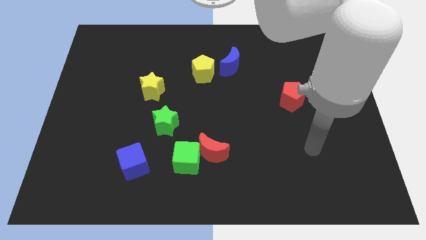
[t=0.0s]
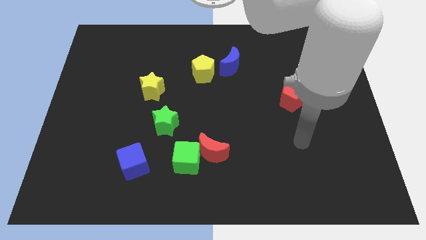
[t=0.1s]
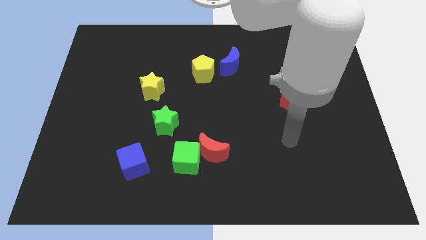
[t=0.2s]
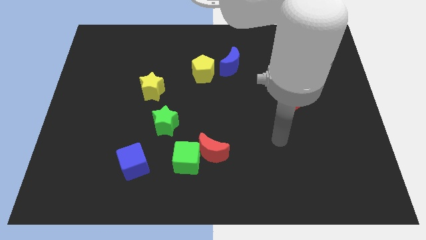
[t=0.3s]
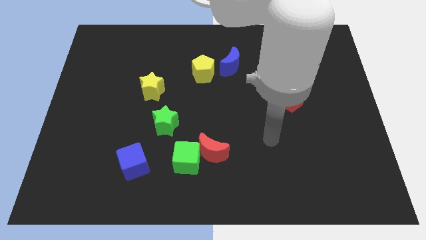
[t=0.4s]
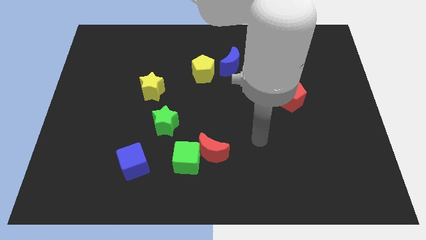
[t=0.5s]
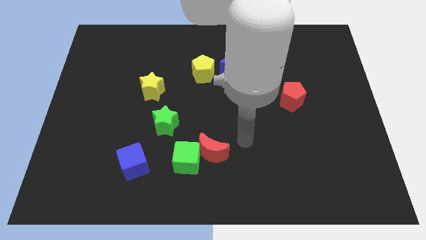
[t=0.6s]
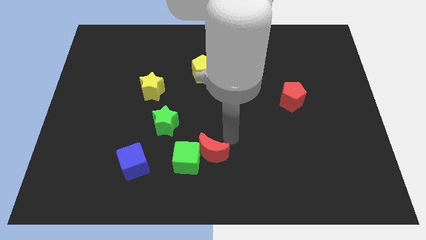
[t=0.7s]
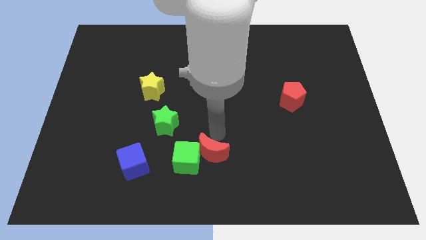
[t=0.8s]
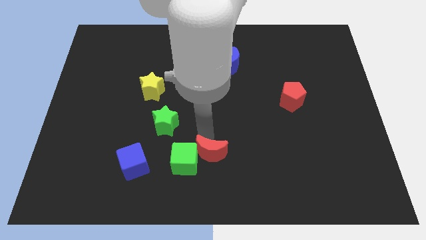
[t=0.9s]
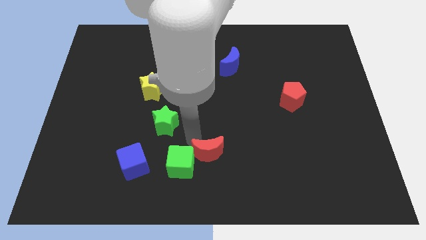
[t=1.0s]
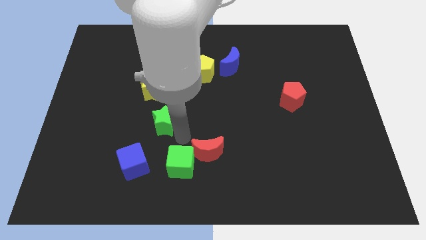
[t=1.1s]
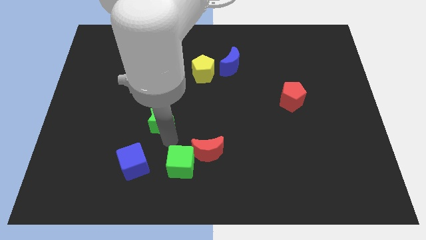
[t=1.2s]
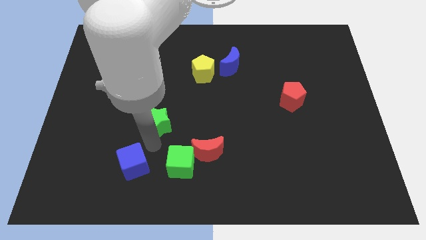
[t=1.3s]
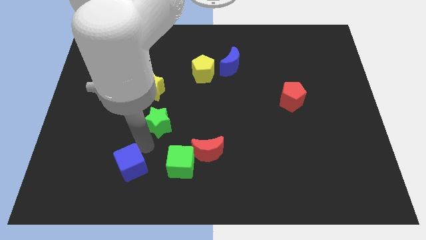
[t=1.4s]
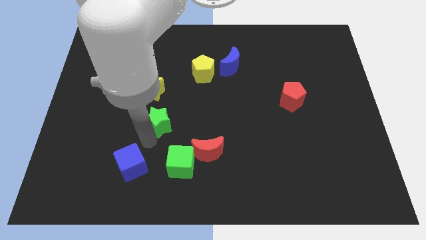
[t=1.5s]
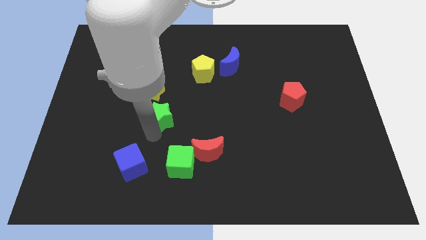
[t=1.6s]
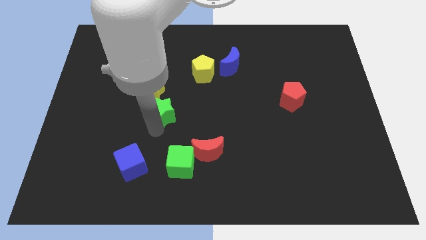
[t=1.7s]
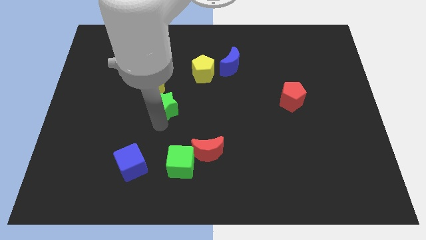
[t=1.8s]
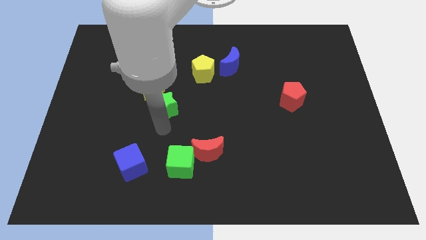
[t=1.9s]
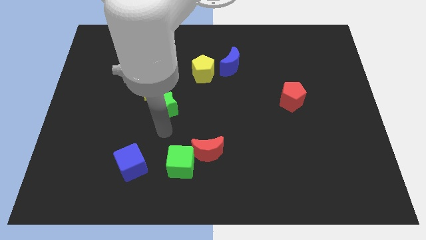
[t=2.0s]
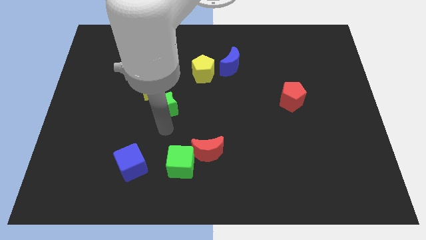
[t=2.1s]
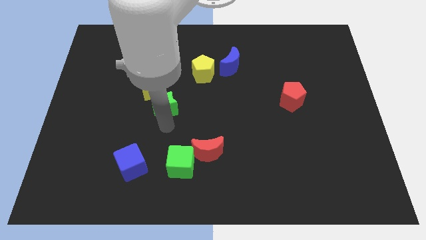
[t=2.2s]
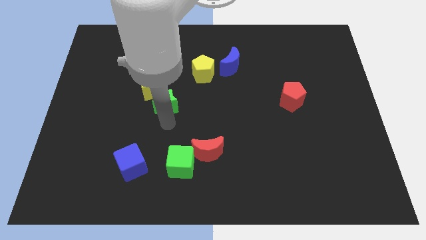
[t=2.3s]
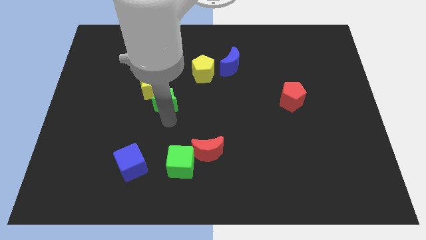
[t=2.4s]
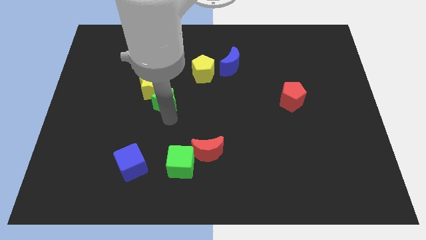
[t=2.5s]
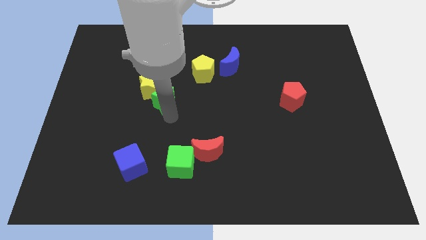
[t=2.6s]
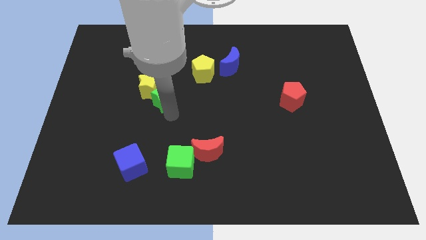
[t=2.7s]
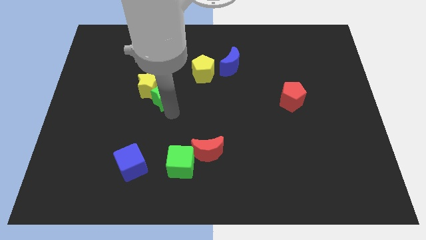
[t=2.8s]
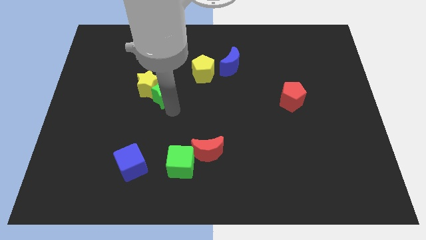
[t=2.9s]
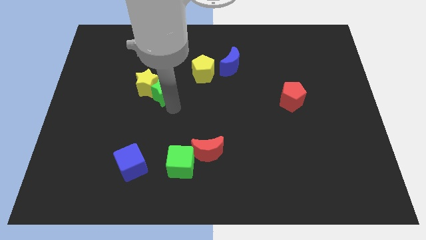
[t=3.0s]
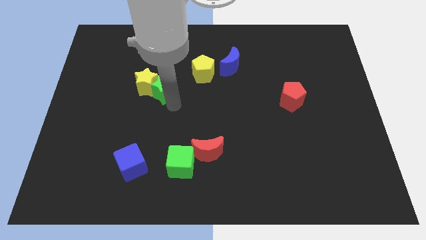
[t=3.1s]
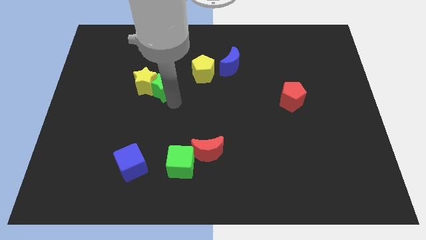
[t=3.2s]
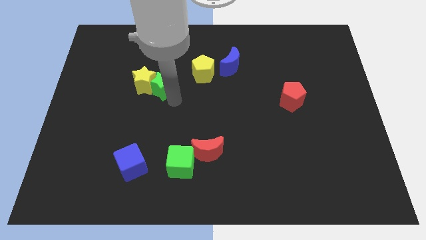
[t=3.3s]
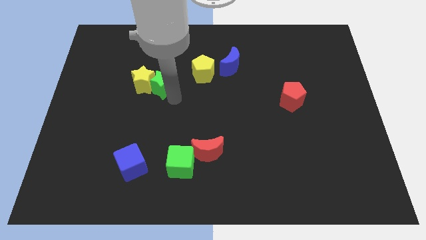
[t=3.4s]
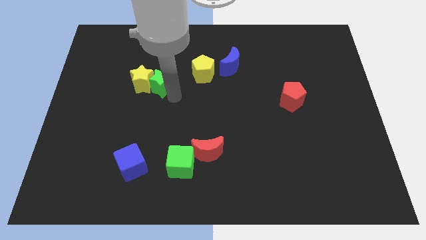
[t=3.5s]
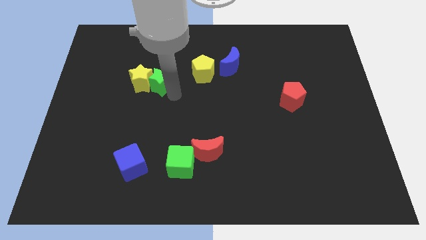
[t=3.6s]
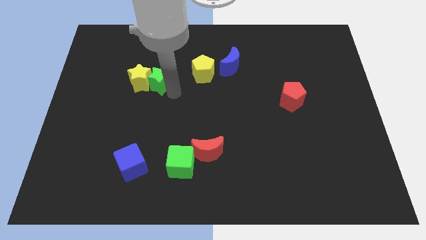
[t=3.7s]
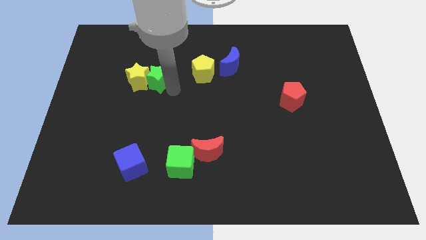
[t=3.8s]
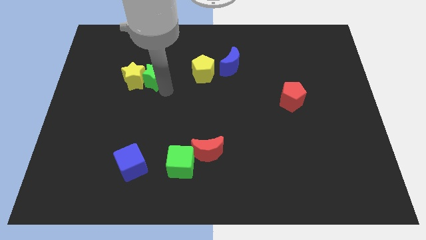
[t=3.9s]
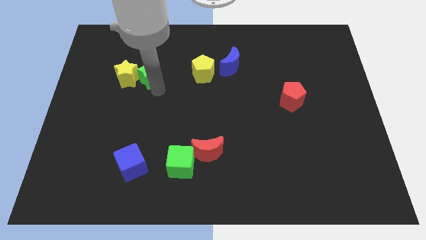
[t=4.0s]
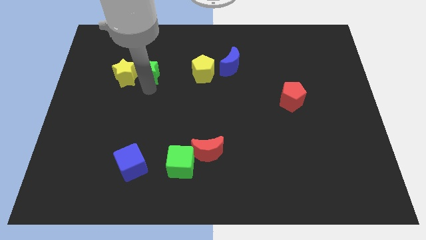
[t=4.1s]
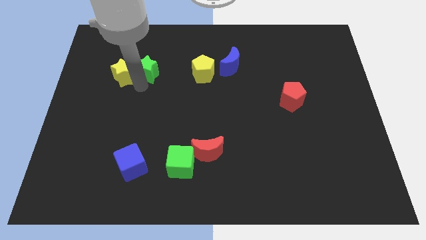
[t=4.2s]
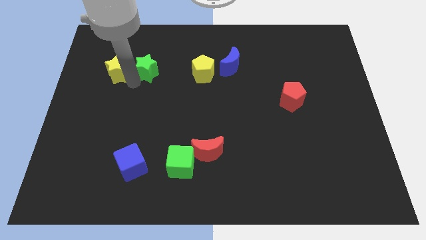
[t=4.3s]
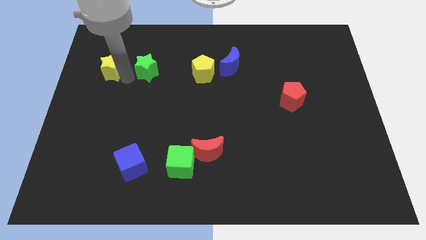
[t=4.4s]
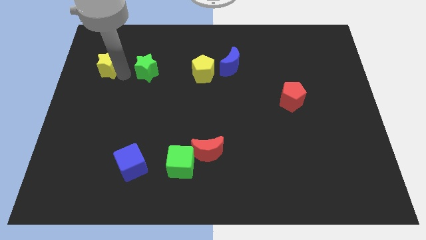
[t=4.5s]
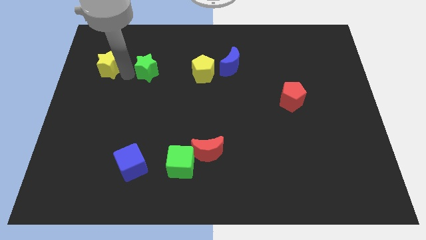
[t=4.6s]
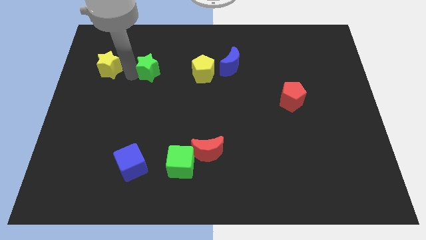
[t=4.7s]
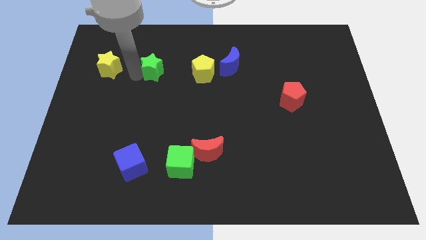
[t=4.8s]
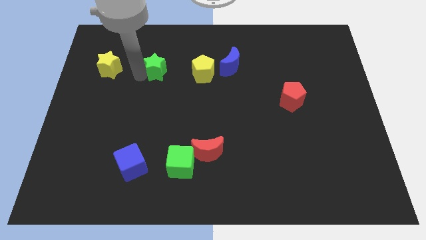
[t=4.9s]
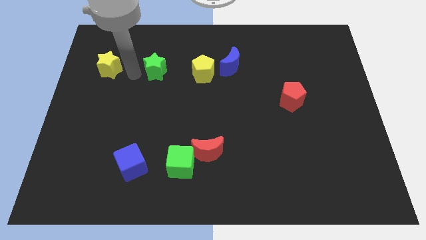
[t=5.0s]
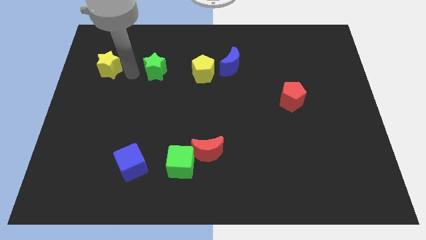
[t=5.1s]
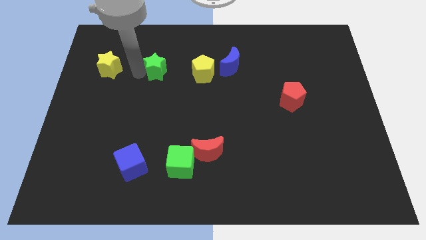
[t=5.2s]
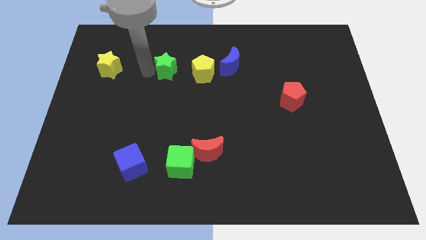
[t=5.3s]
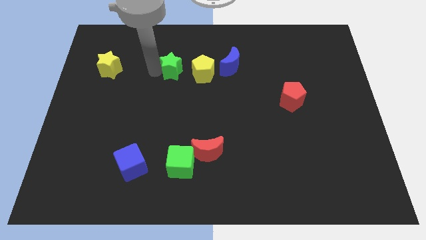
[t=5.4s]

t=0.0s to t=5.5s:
move the green star to the left side of the blue moon

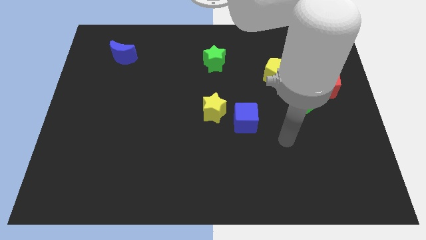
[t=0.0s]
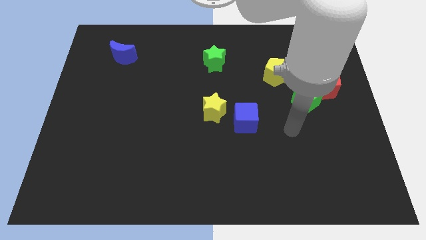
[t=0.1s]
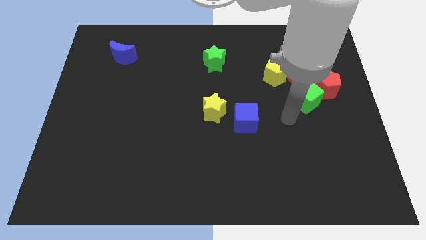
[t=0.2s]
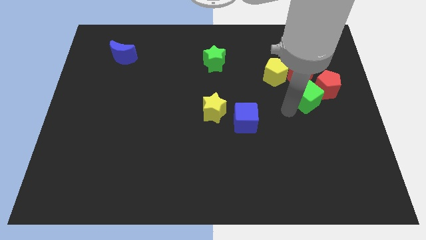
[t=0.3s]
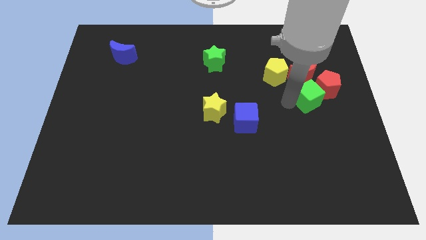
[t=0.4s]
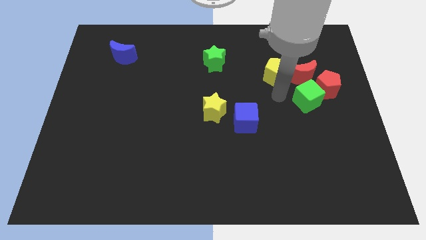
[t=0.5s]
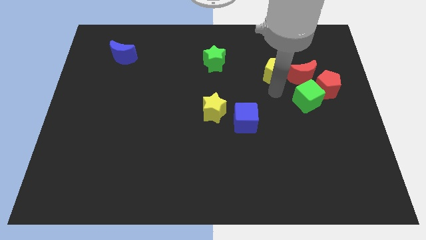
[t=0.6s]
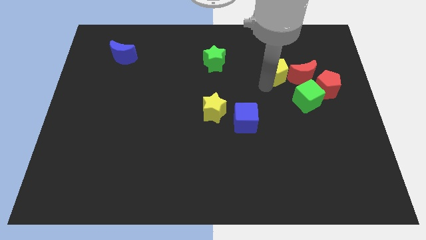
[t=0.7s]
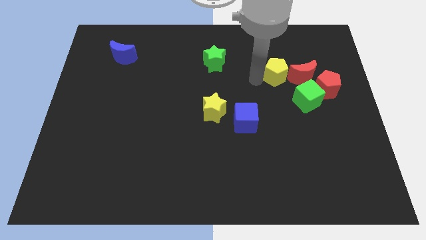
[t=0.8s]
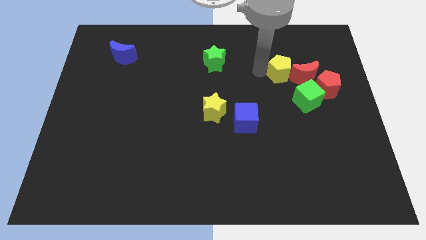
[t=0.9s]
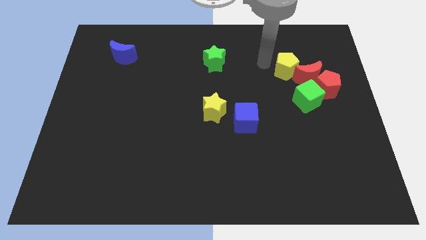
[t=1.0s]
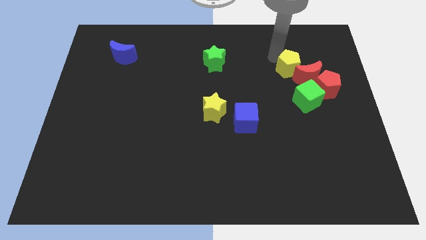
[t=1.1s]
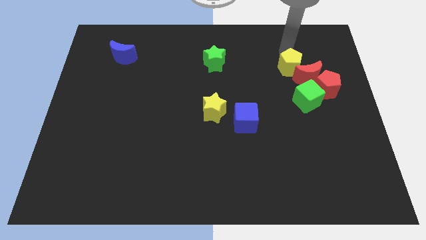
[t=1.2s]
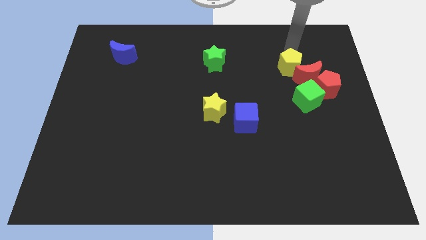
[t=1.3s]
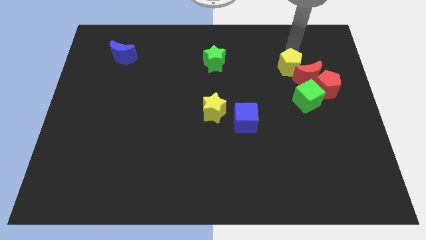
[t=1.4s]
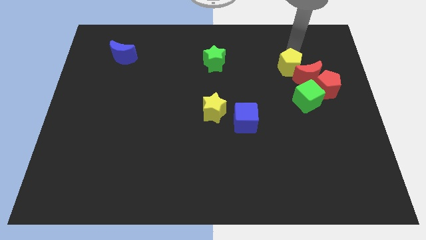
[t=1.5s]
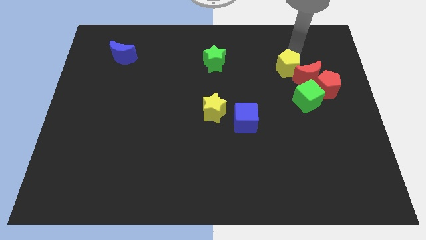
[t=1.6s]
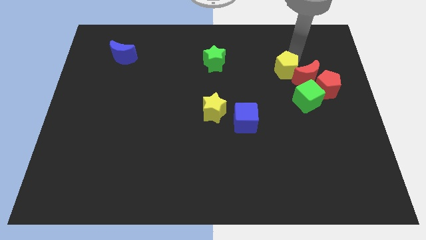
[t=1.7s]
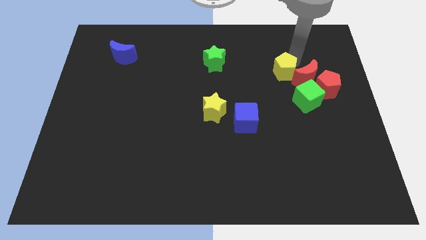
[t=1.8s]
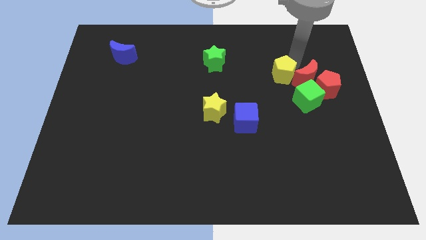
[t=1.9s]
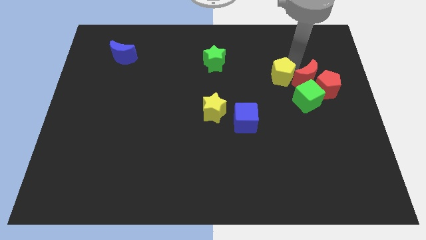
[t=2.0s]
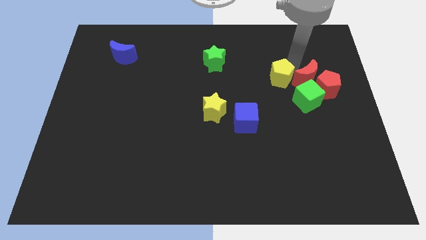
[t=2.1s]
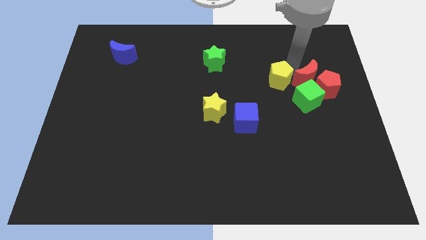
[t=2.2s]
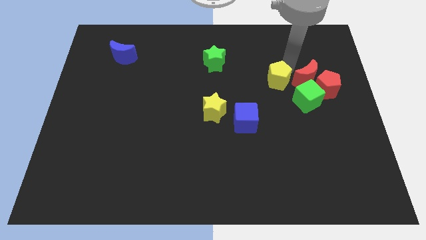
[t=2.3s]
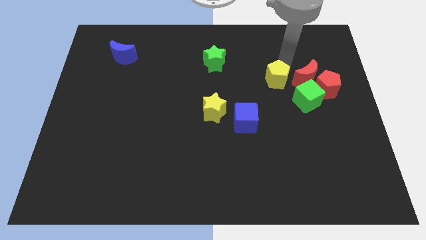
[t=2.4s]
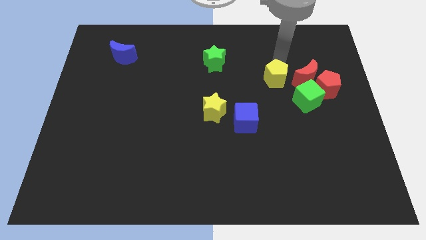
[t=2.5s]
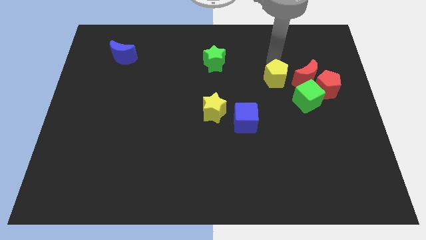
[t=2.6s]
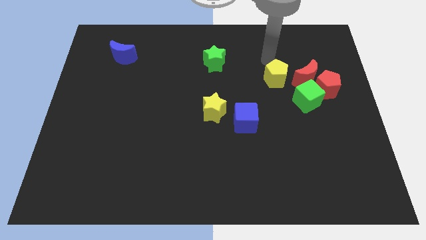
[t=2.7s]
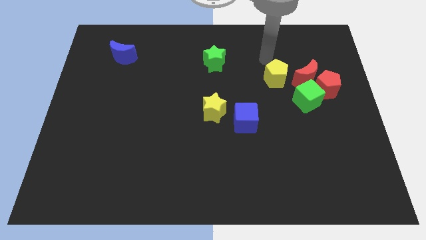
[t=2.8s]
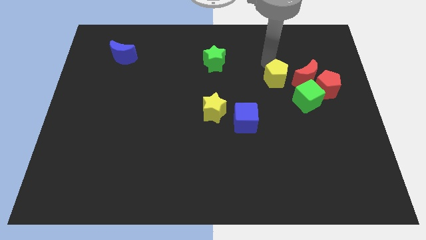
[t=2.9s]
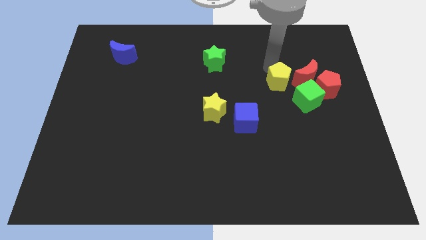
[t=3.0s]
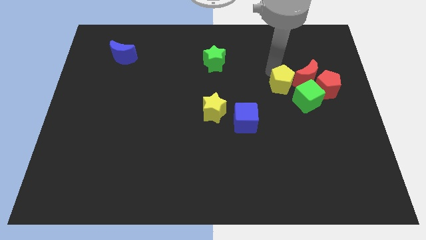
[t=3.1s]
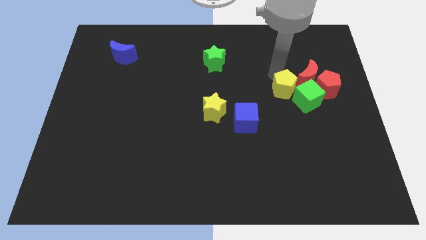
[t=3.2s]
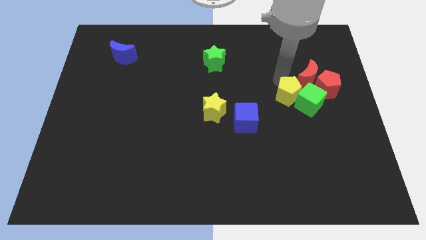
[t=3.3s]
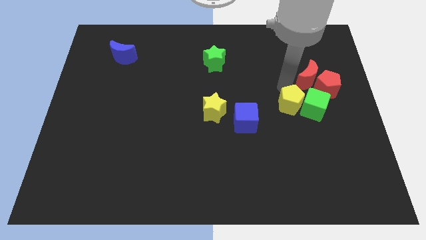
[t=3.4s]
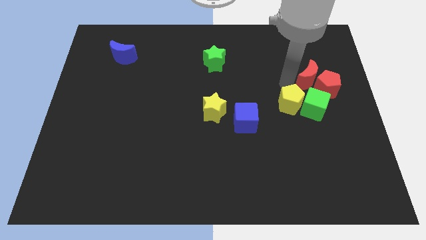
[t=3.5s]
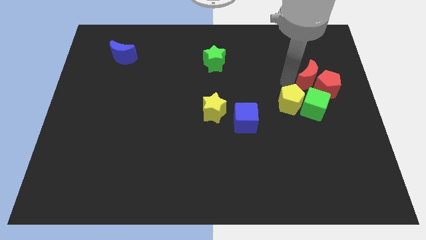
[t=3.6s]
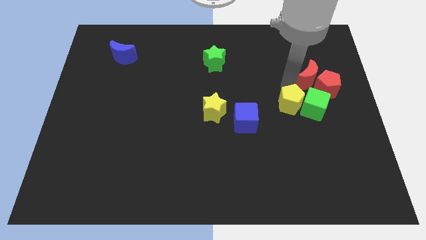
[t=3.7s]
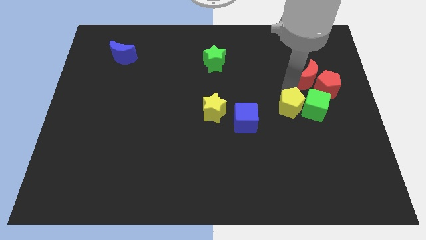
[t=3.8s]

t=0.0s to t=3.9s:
move the yellow pentagon to the right side of the blue cube
